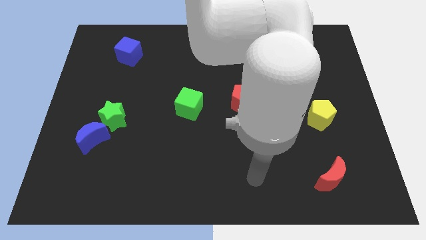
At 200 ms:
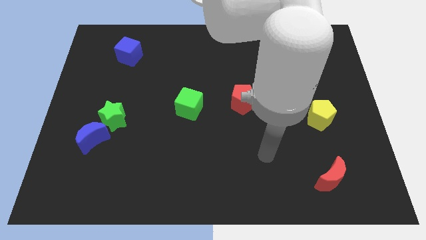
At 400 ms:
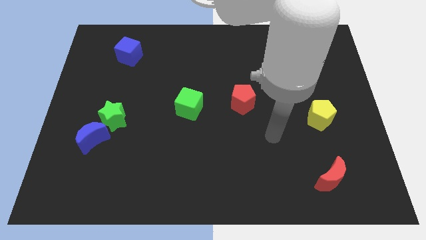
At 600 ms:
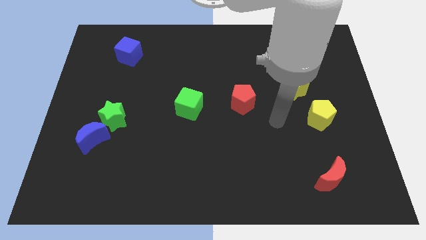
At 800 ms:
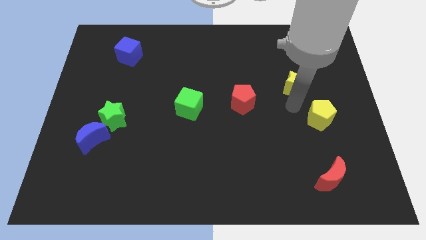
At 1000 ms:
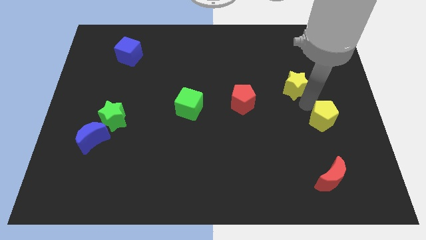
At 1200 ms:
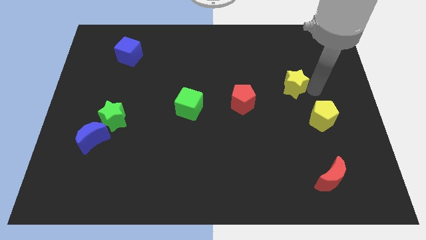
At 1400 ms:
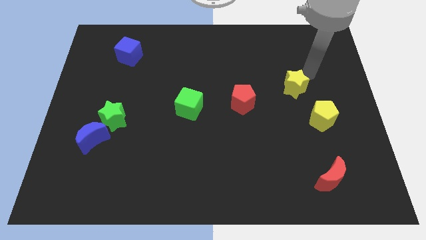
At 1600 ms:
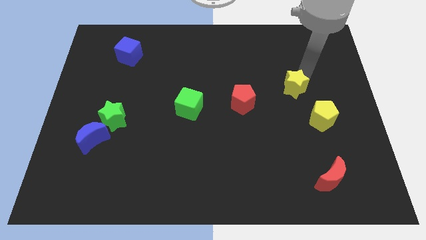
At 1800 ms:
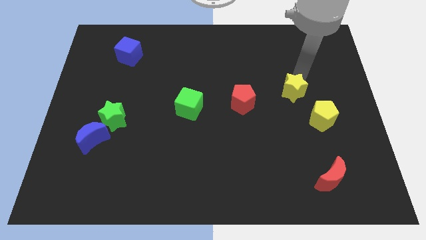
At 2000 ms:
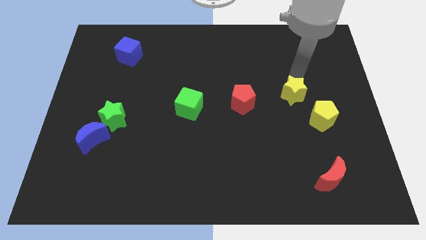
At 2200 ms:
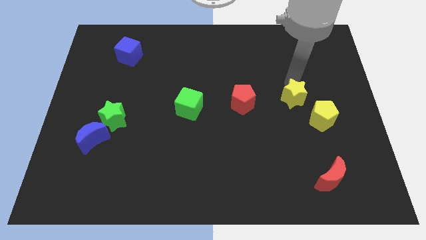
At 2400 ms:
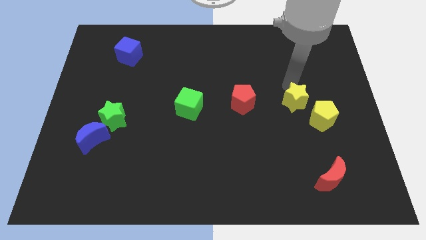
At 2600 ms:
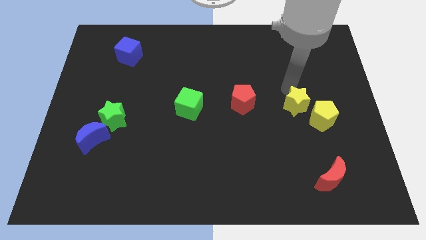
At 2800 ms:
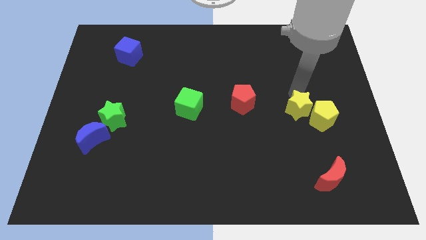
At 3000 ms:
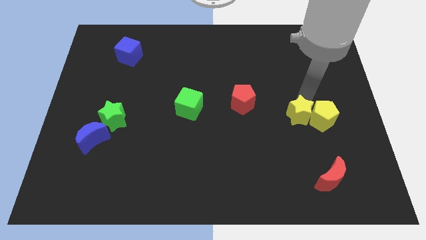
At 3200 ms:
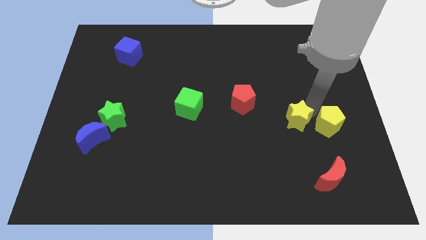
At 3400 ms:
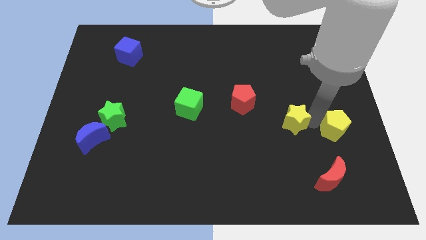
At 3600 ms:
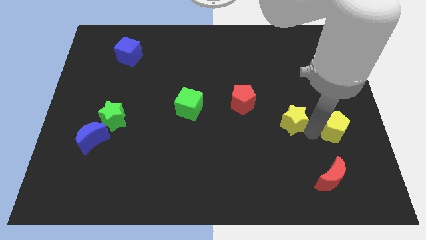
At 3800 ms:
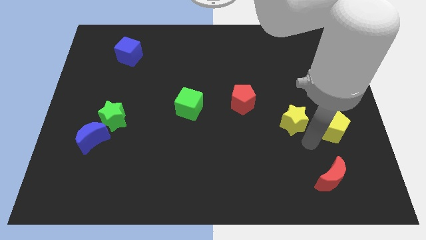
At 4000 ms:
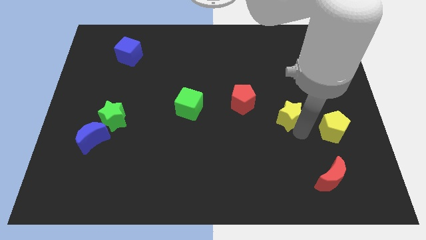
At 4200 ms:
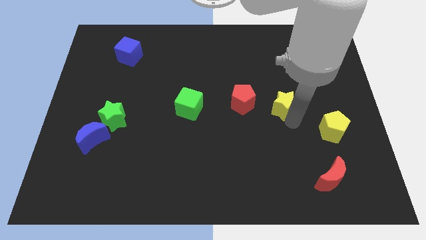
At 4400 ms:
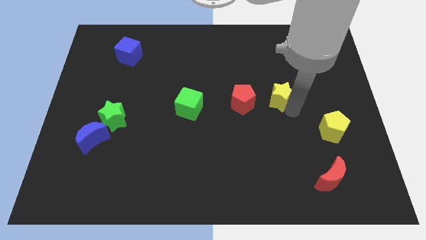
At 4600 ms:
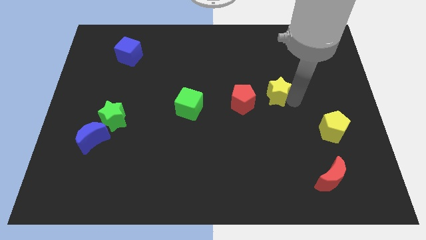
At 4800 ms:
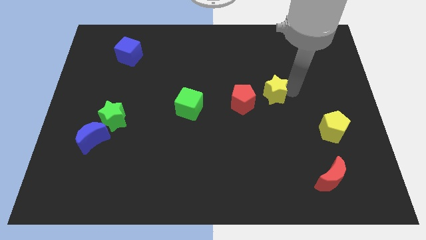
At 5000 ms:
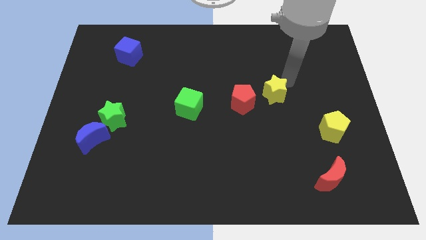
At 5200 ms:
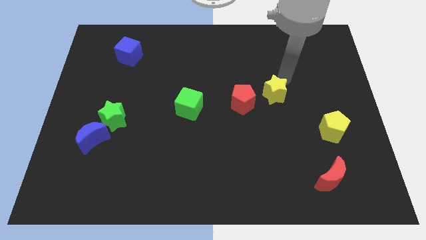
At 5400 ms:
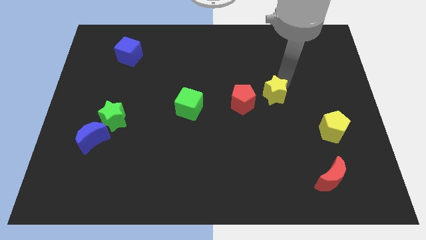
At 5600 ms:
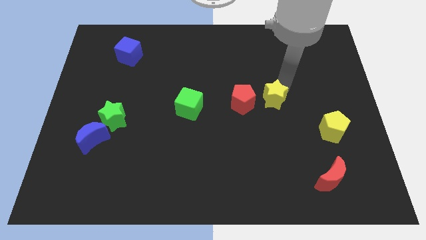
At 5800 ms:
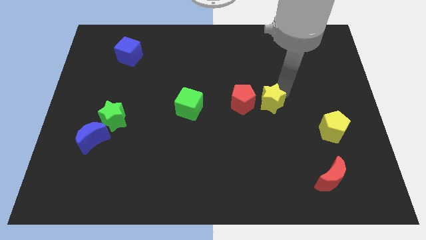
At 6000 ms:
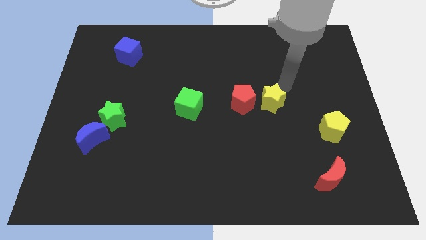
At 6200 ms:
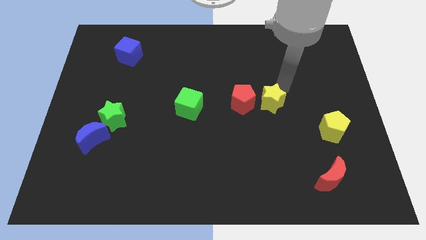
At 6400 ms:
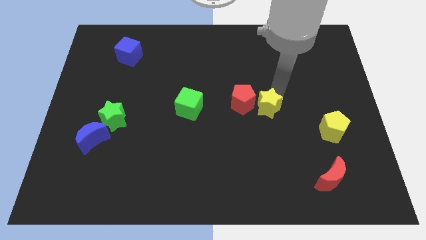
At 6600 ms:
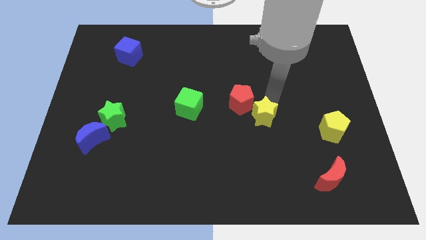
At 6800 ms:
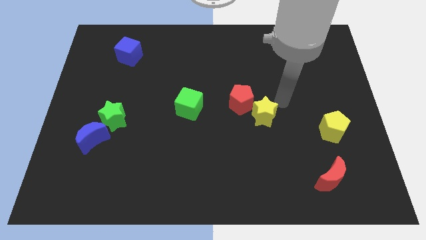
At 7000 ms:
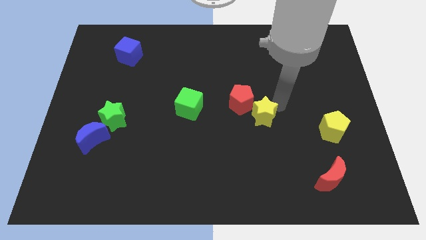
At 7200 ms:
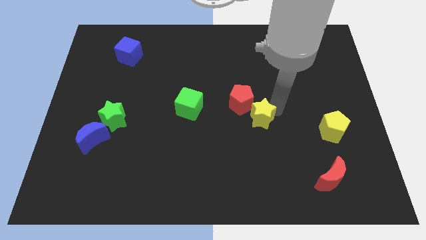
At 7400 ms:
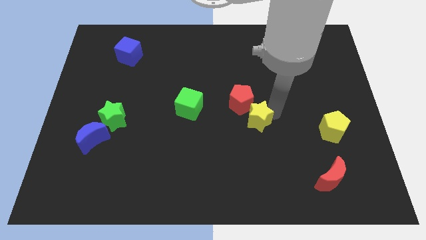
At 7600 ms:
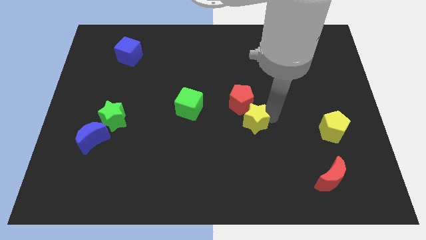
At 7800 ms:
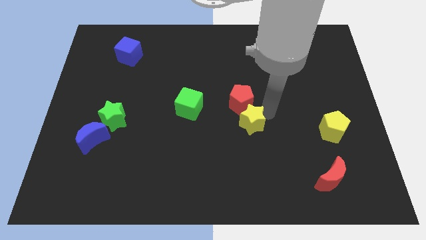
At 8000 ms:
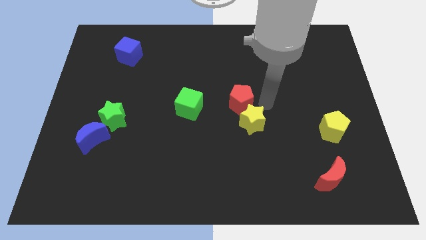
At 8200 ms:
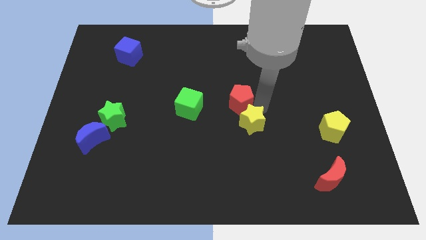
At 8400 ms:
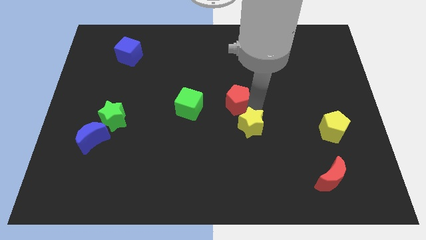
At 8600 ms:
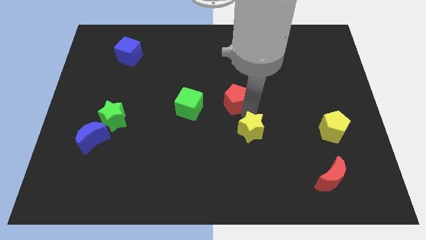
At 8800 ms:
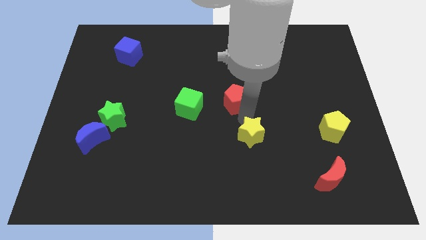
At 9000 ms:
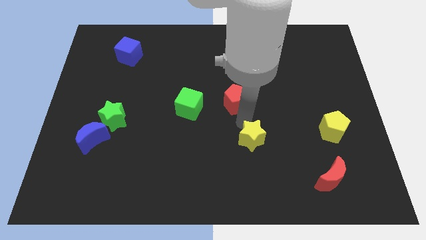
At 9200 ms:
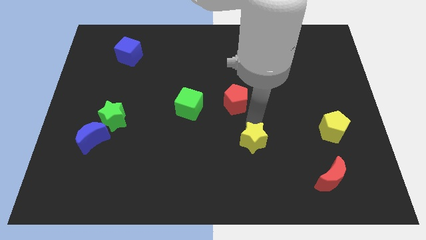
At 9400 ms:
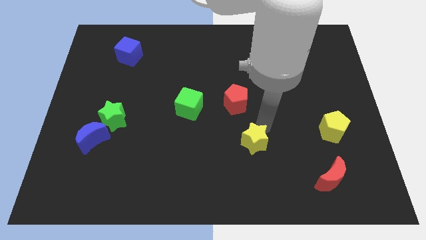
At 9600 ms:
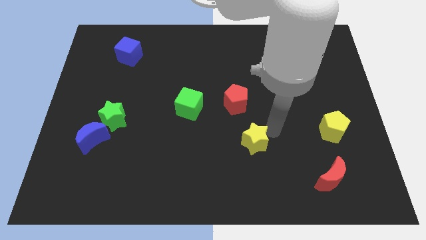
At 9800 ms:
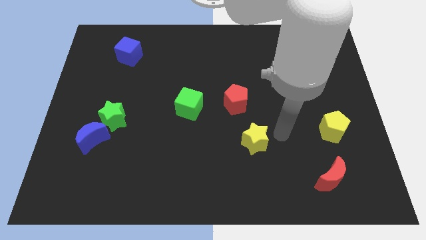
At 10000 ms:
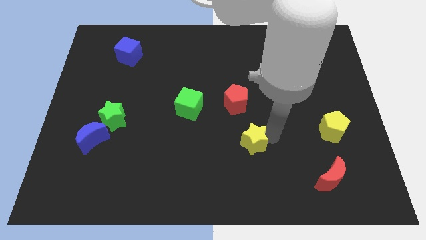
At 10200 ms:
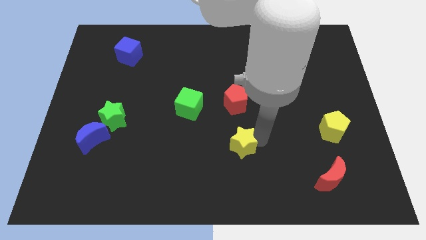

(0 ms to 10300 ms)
move the yellow star down and then left

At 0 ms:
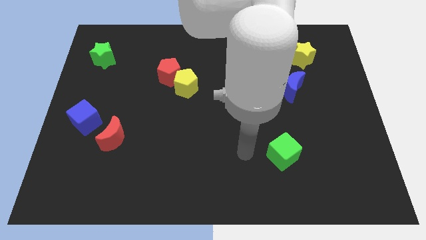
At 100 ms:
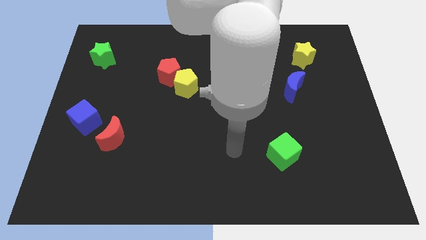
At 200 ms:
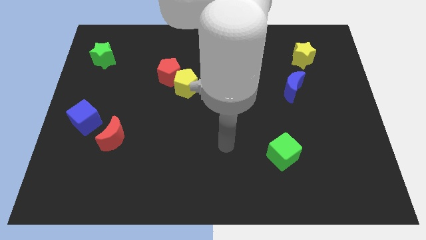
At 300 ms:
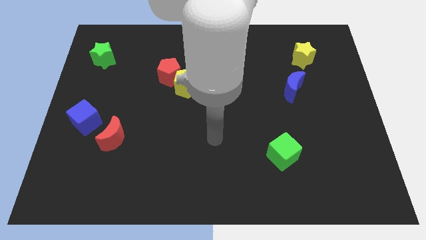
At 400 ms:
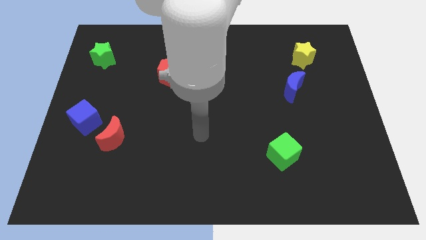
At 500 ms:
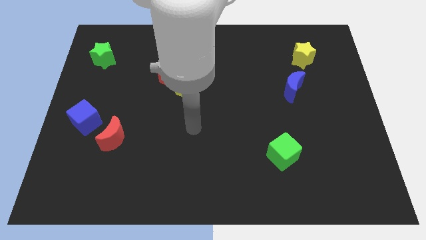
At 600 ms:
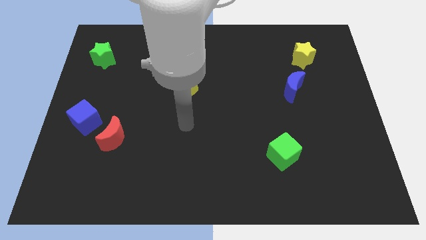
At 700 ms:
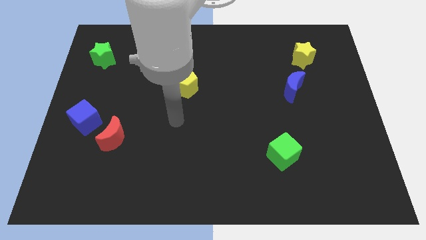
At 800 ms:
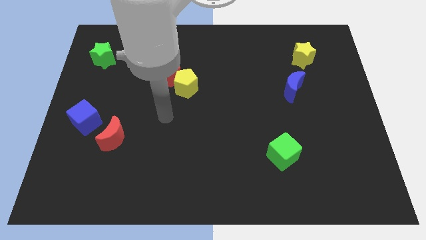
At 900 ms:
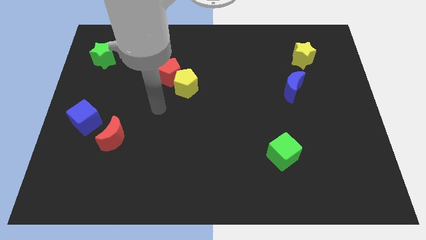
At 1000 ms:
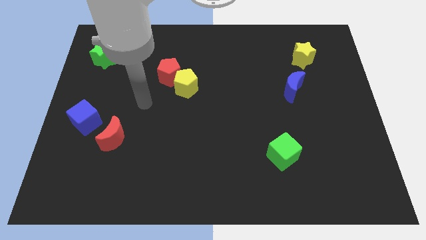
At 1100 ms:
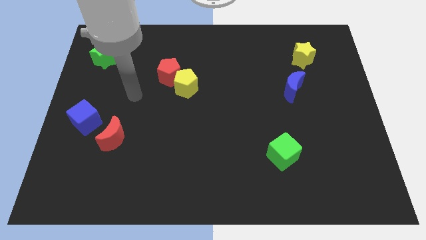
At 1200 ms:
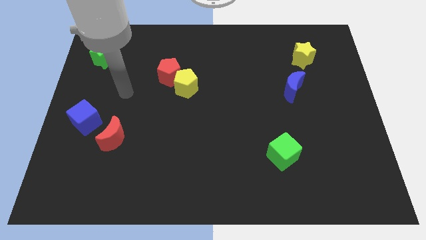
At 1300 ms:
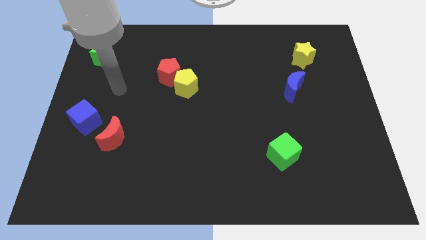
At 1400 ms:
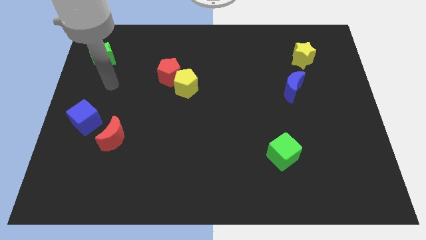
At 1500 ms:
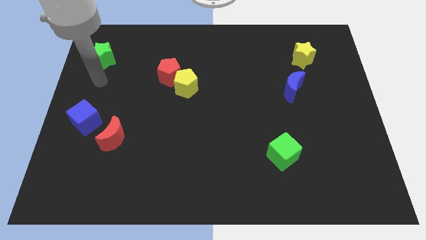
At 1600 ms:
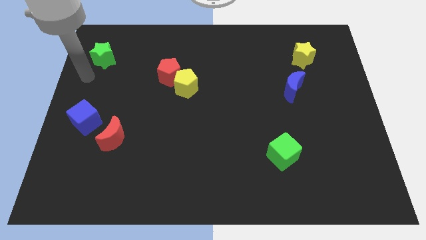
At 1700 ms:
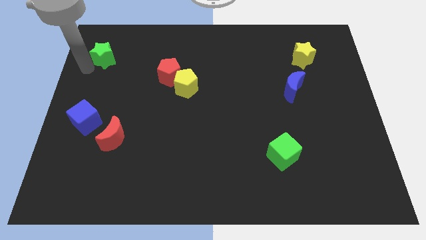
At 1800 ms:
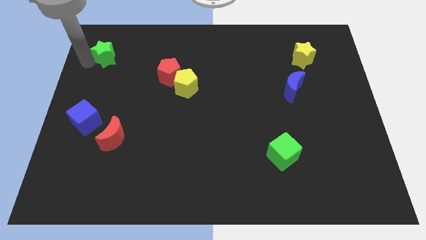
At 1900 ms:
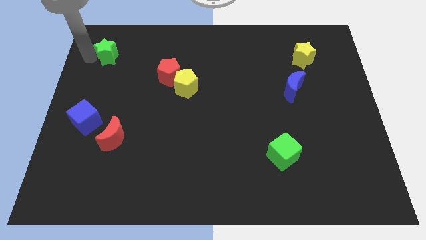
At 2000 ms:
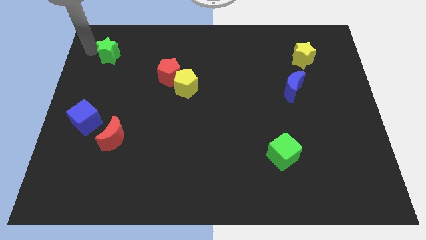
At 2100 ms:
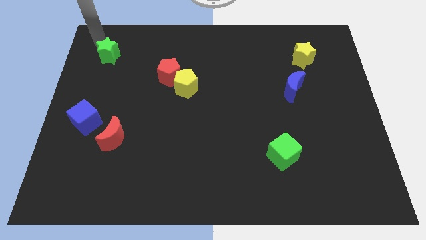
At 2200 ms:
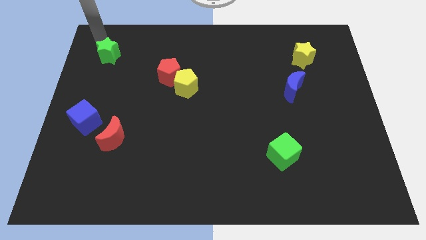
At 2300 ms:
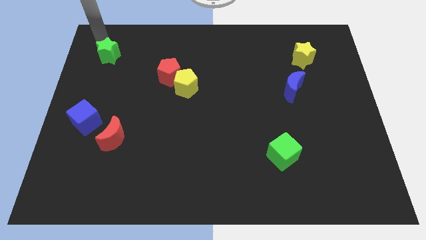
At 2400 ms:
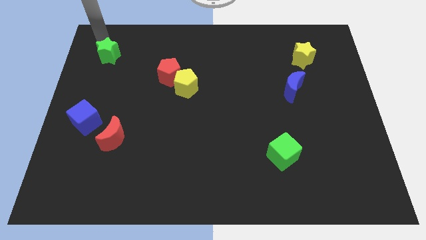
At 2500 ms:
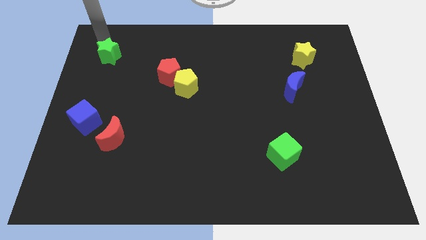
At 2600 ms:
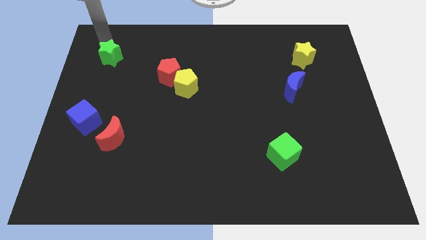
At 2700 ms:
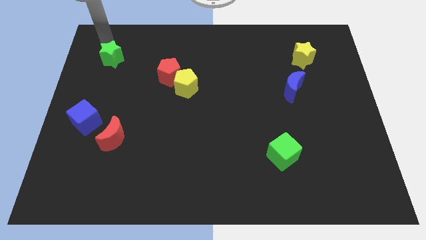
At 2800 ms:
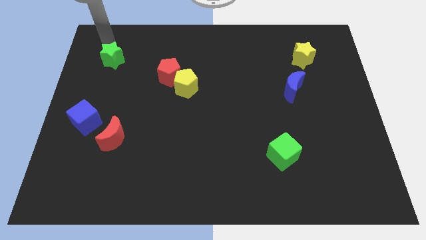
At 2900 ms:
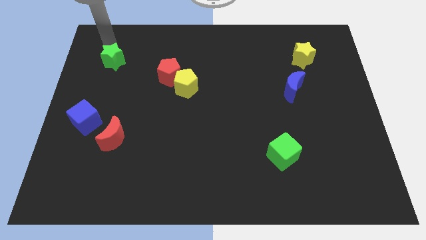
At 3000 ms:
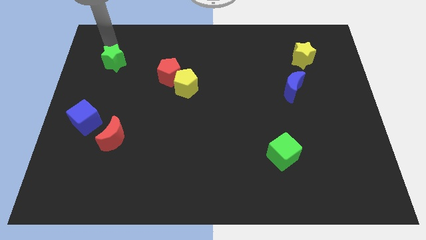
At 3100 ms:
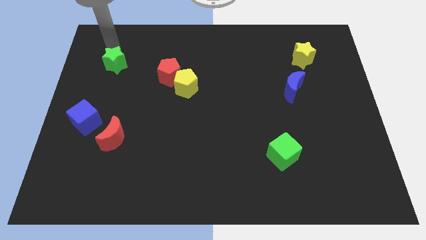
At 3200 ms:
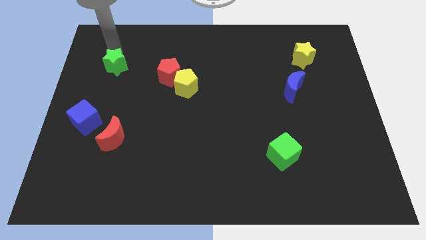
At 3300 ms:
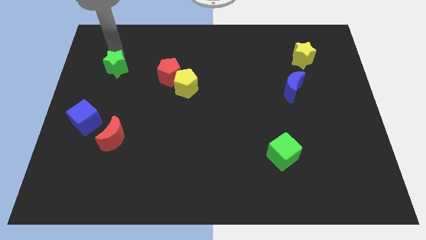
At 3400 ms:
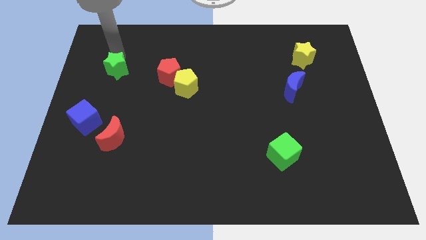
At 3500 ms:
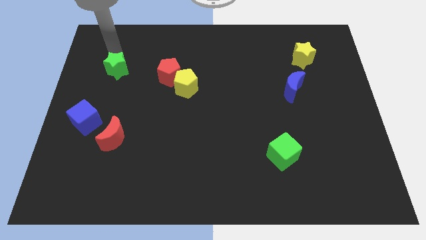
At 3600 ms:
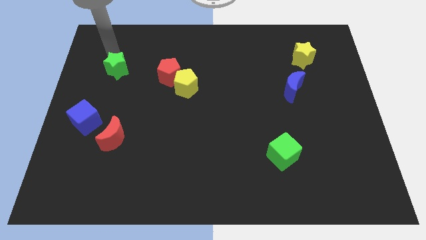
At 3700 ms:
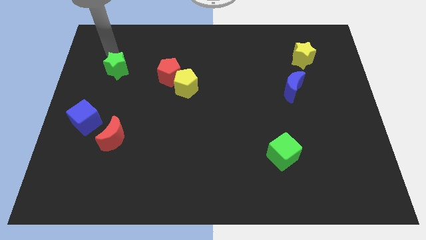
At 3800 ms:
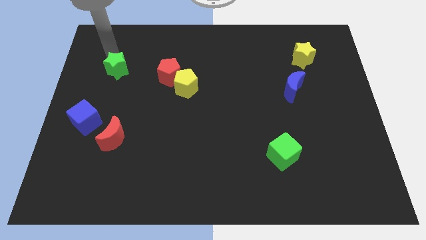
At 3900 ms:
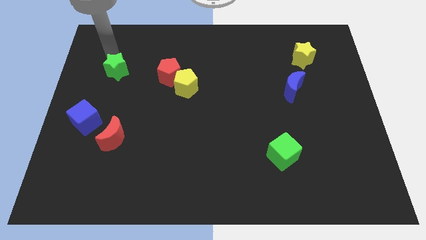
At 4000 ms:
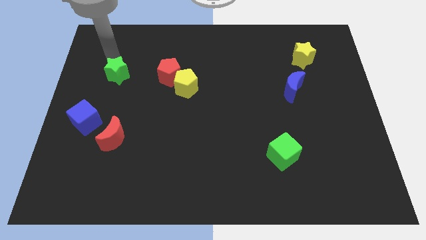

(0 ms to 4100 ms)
move the green star a little downwards and to the right
